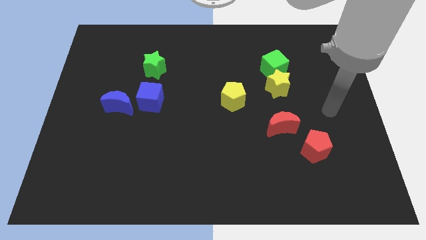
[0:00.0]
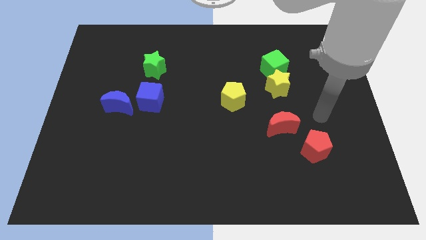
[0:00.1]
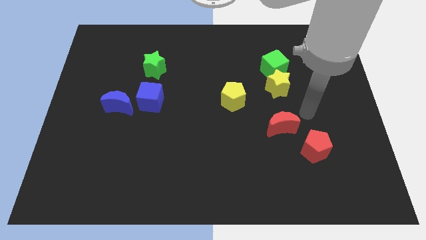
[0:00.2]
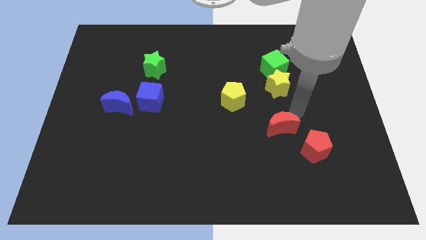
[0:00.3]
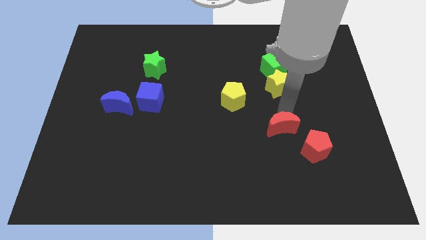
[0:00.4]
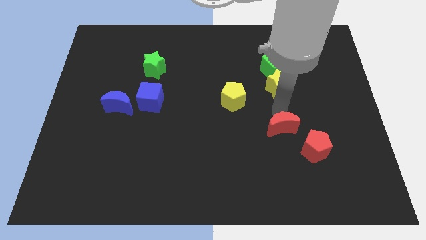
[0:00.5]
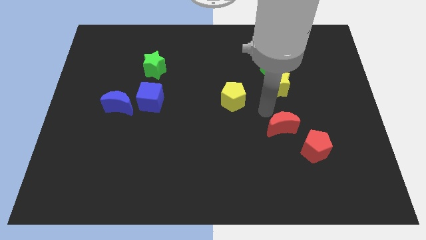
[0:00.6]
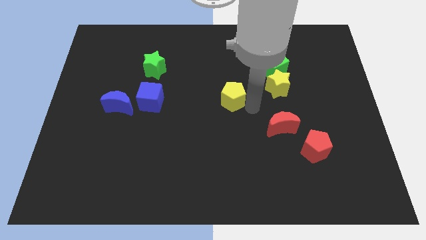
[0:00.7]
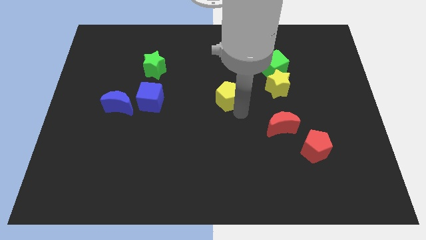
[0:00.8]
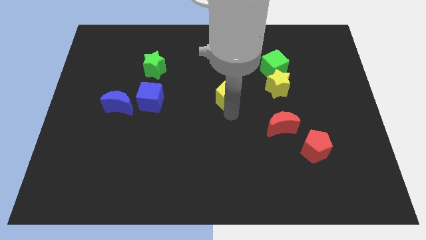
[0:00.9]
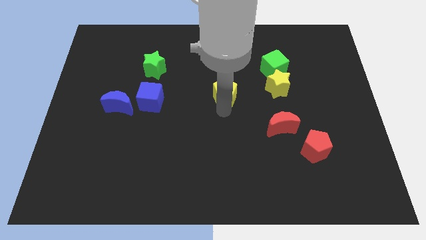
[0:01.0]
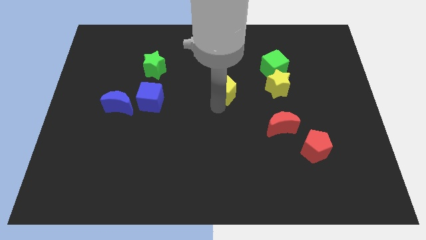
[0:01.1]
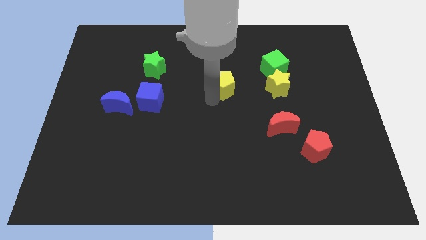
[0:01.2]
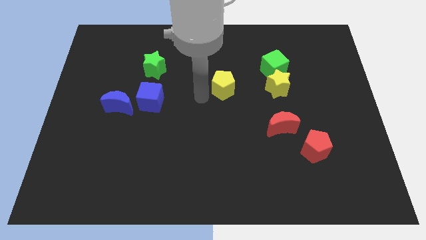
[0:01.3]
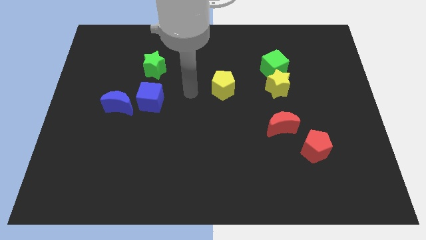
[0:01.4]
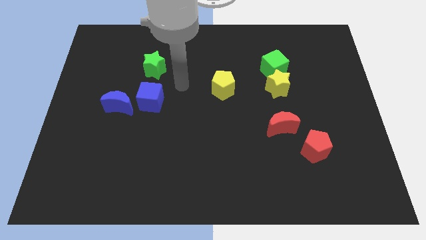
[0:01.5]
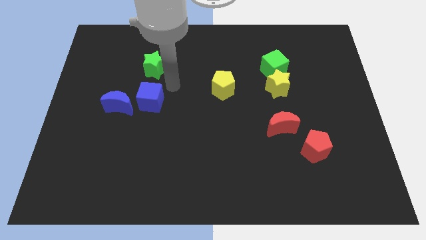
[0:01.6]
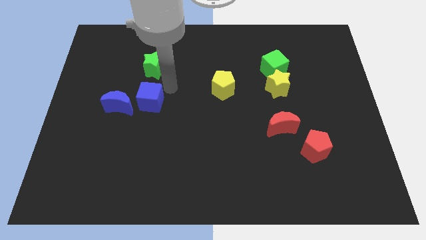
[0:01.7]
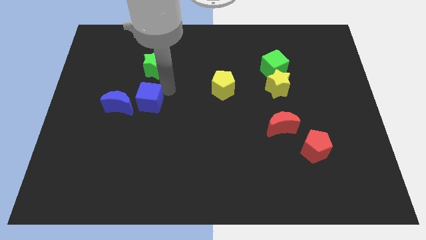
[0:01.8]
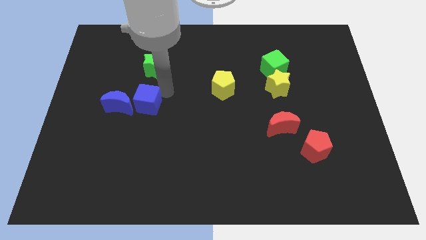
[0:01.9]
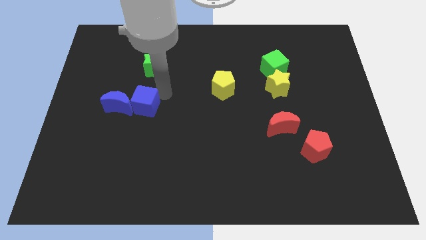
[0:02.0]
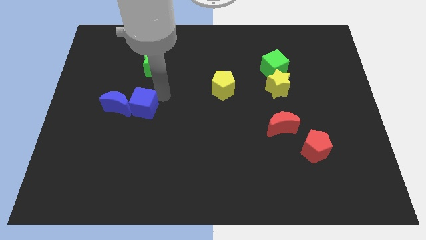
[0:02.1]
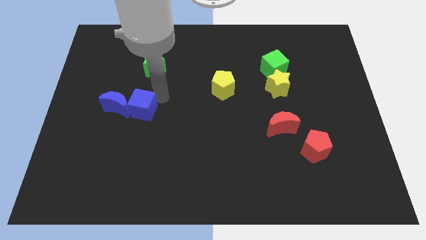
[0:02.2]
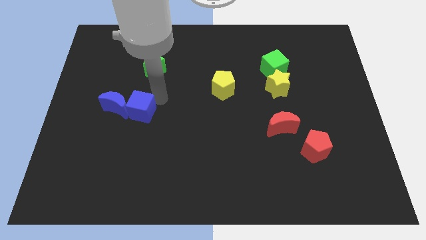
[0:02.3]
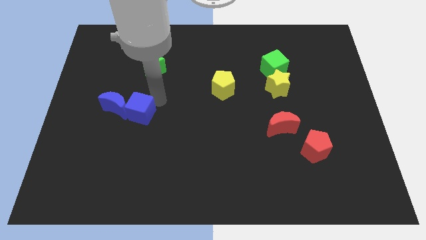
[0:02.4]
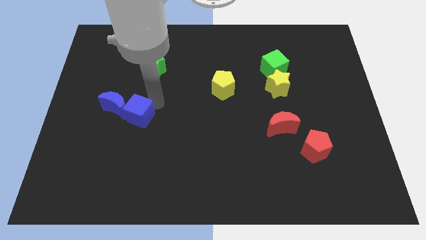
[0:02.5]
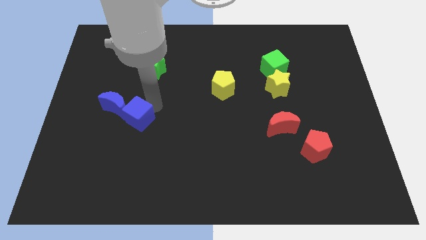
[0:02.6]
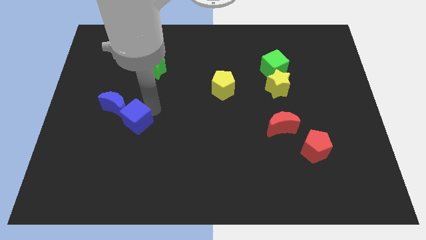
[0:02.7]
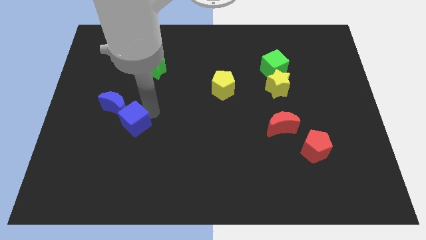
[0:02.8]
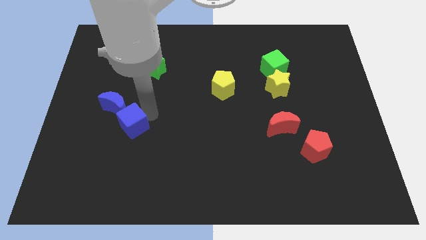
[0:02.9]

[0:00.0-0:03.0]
push the blue cube down and left somewhat

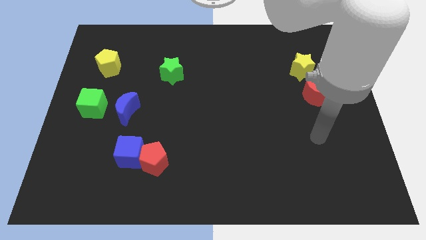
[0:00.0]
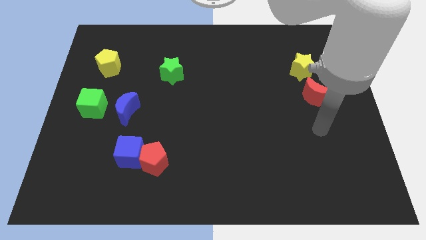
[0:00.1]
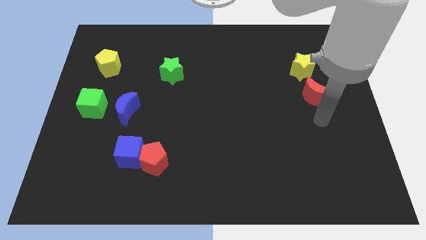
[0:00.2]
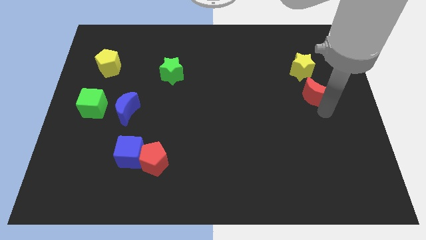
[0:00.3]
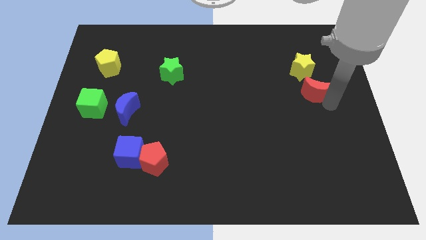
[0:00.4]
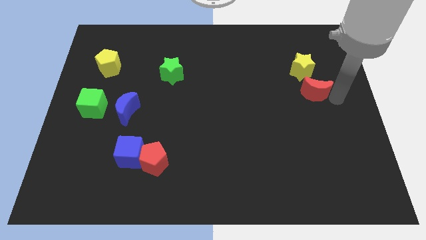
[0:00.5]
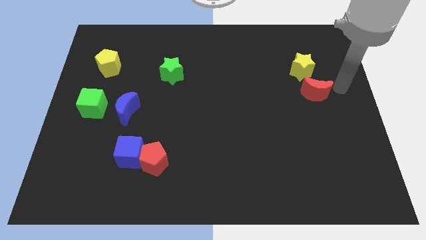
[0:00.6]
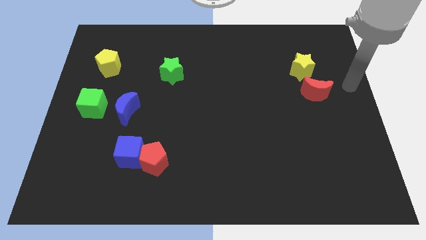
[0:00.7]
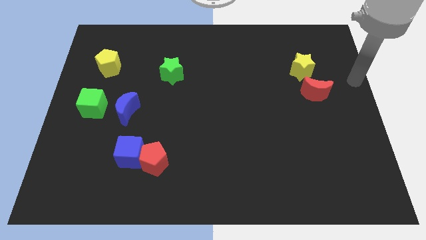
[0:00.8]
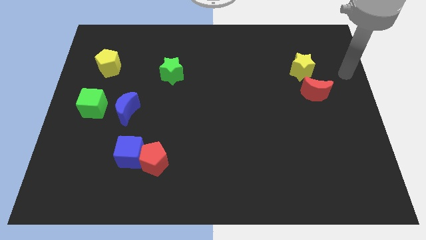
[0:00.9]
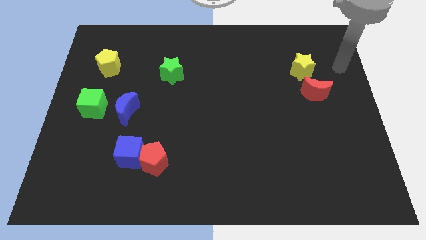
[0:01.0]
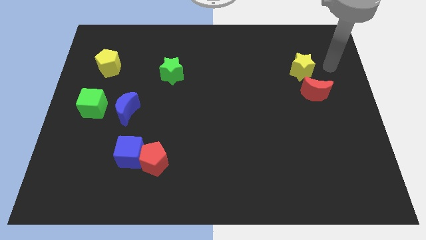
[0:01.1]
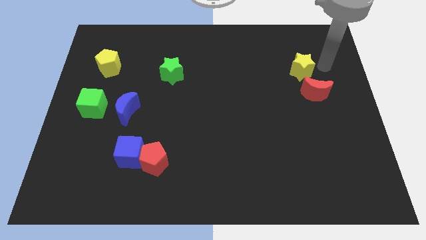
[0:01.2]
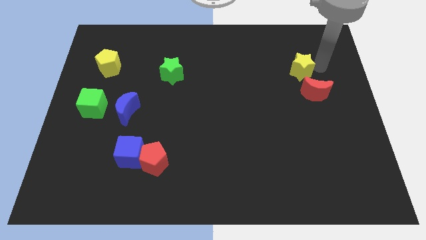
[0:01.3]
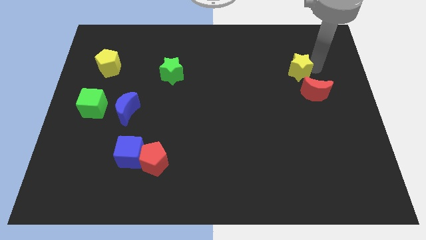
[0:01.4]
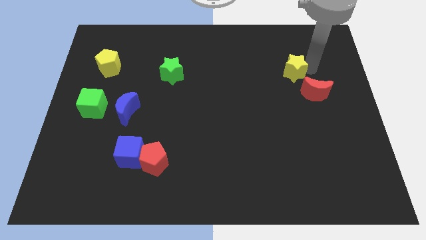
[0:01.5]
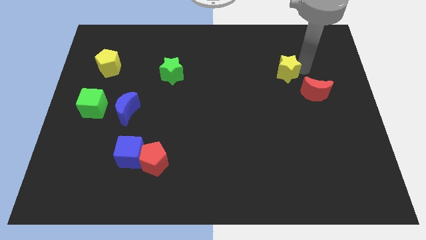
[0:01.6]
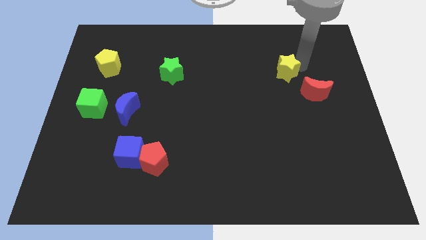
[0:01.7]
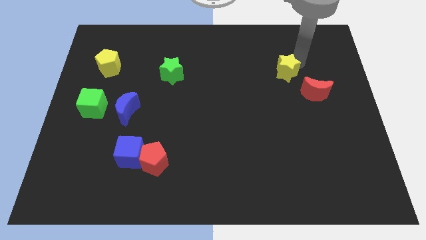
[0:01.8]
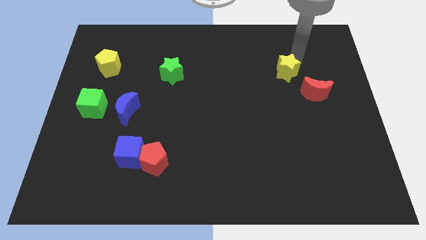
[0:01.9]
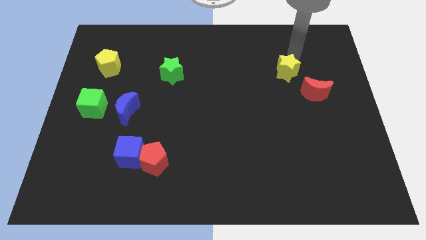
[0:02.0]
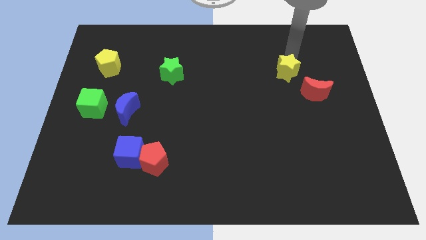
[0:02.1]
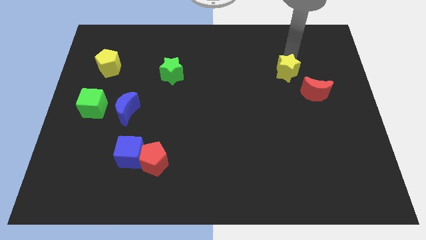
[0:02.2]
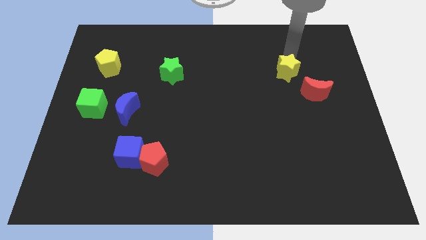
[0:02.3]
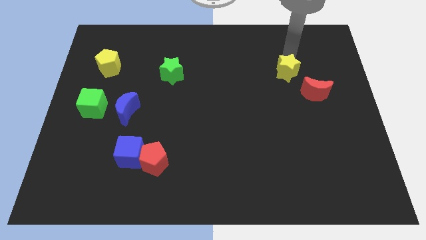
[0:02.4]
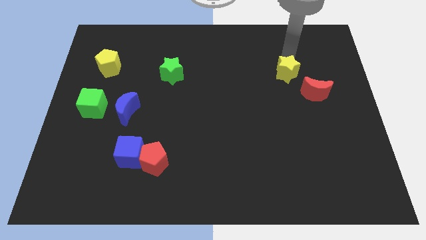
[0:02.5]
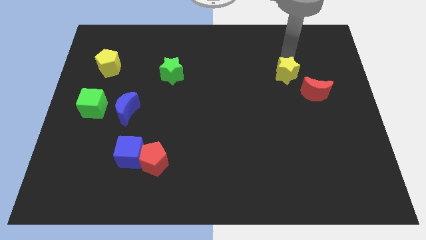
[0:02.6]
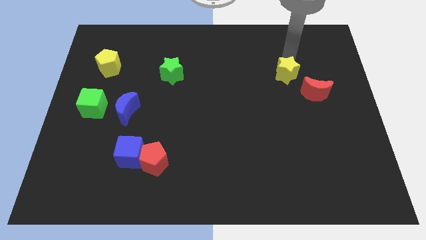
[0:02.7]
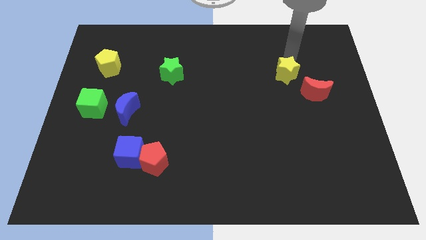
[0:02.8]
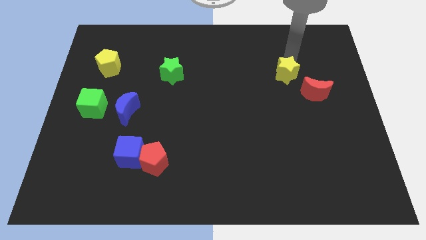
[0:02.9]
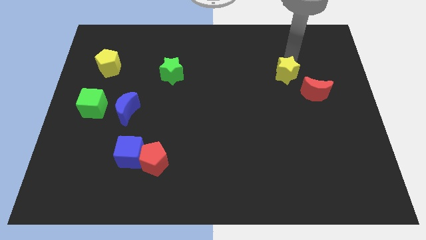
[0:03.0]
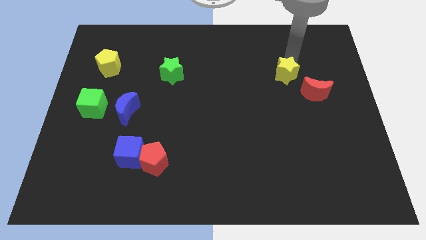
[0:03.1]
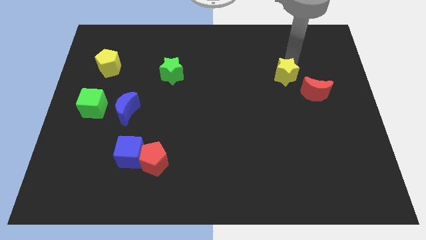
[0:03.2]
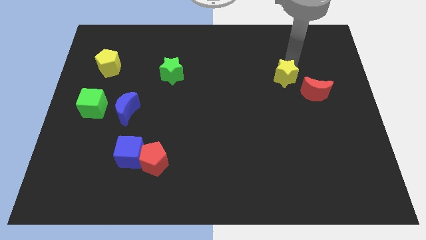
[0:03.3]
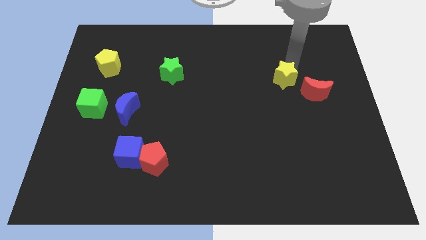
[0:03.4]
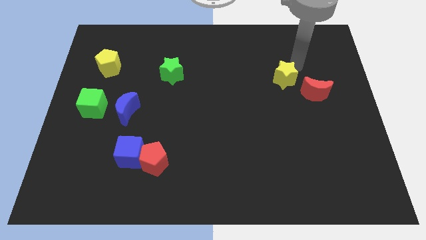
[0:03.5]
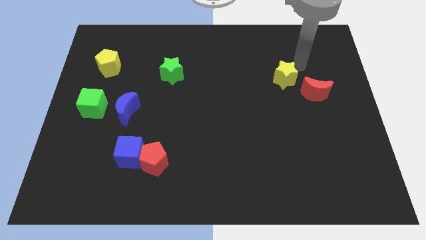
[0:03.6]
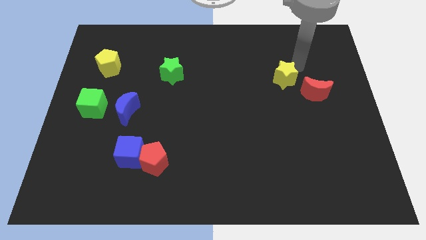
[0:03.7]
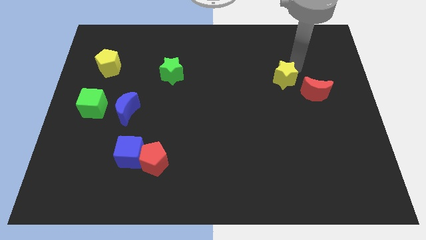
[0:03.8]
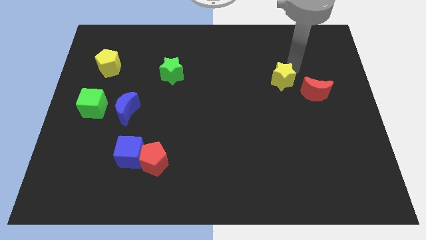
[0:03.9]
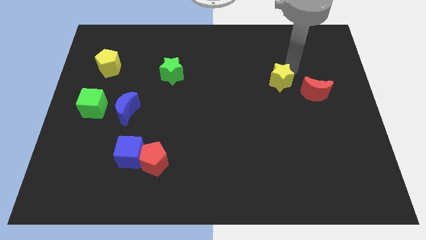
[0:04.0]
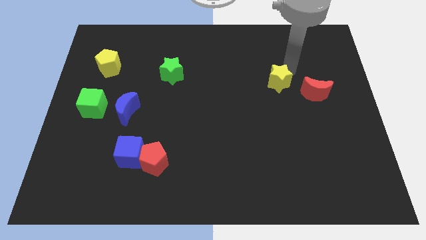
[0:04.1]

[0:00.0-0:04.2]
move the yellow star a little down and to the left diagonally

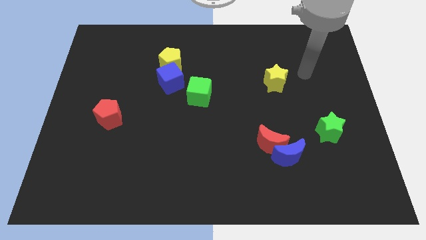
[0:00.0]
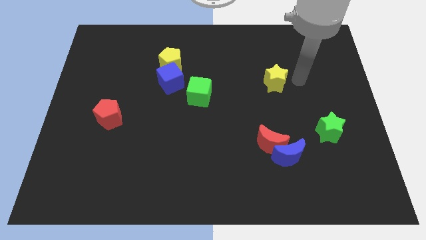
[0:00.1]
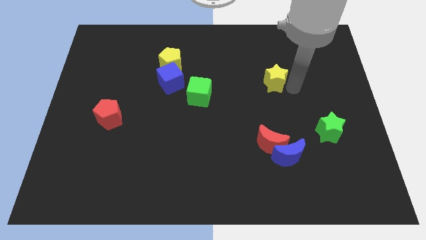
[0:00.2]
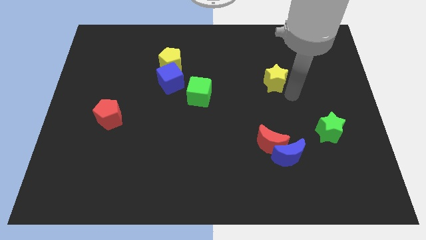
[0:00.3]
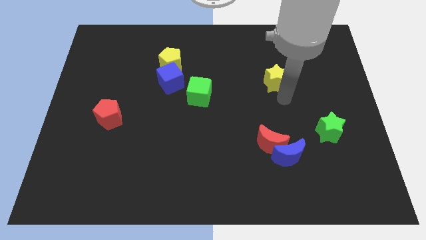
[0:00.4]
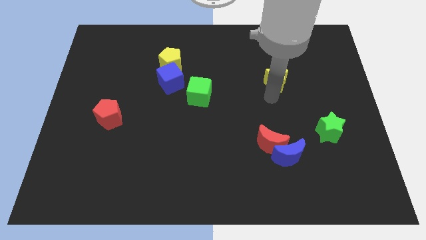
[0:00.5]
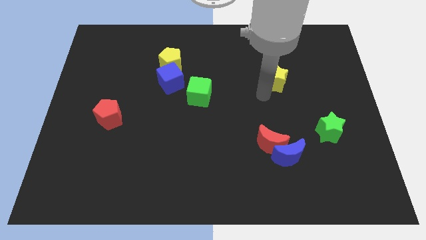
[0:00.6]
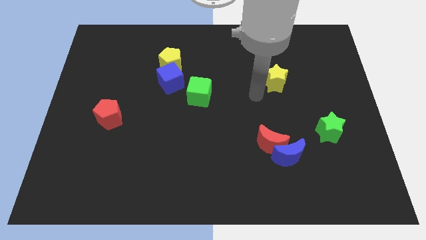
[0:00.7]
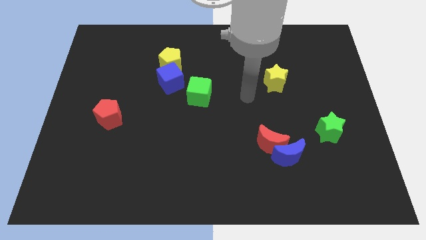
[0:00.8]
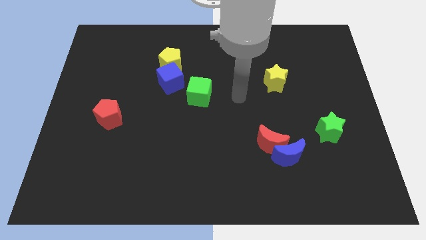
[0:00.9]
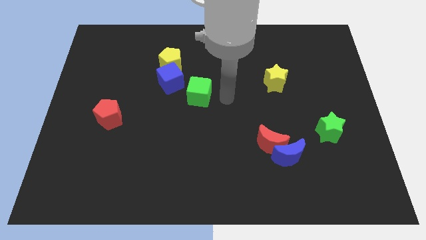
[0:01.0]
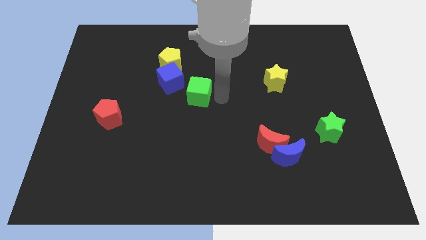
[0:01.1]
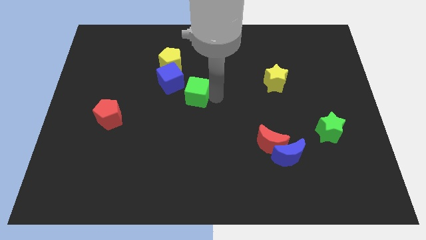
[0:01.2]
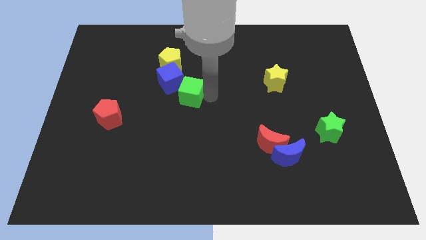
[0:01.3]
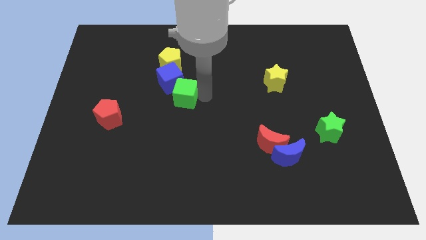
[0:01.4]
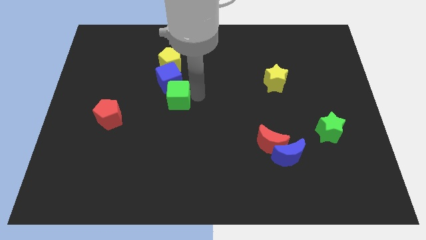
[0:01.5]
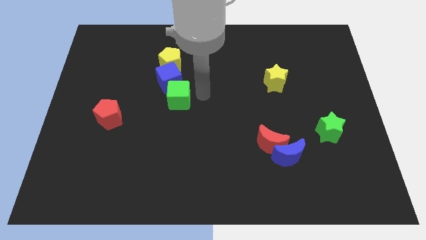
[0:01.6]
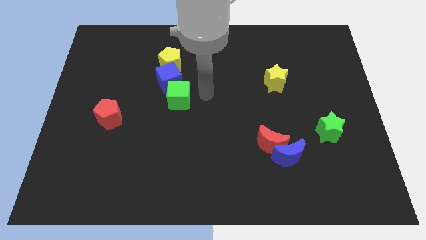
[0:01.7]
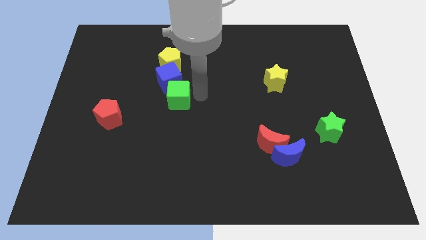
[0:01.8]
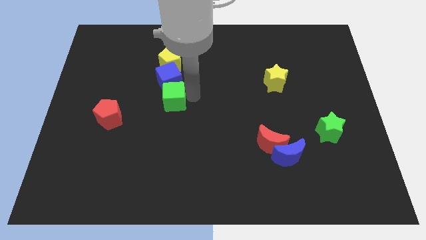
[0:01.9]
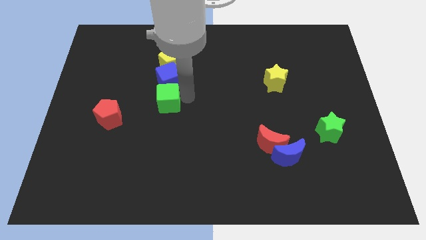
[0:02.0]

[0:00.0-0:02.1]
move the green cube a bit to the left
